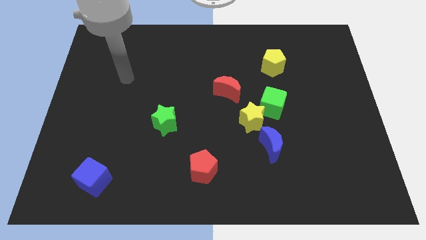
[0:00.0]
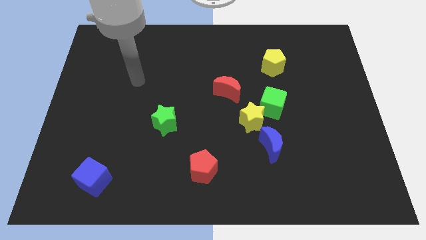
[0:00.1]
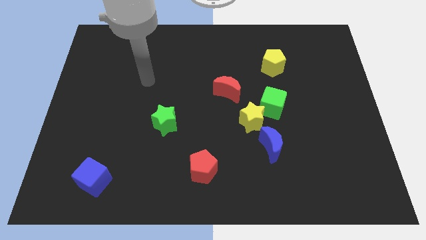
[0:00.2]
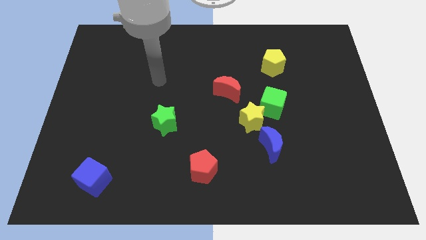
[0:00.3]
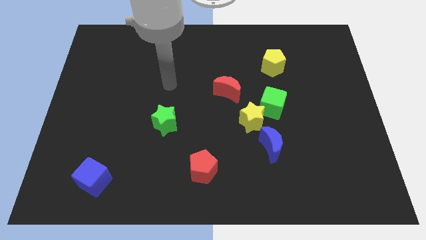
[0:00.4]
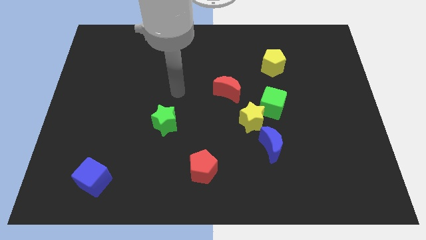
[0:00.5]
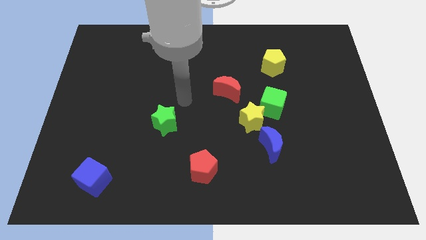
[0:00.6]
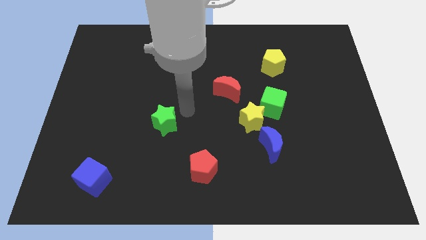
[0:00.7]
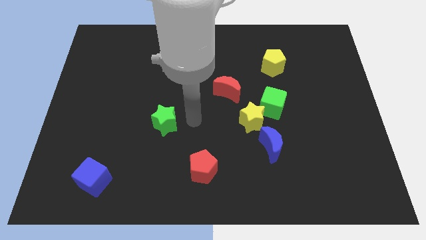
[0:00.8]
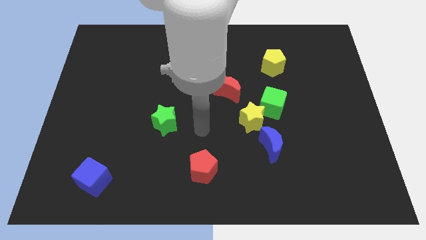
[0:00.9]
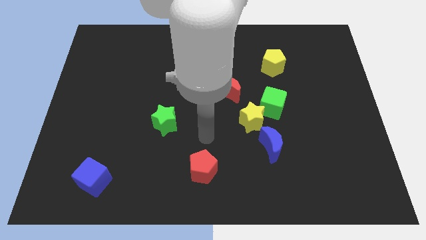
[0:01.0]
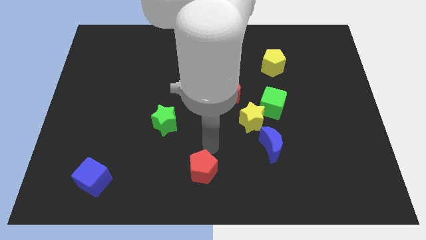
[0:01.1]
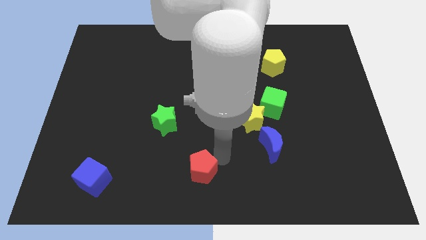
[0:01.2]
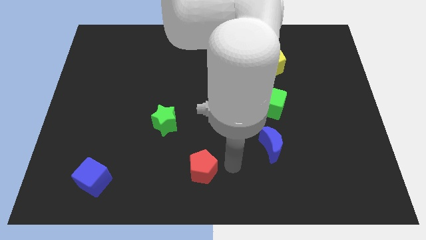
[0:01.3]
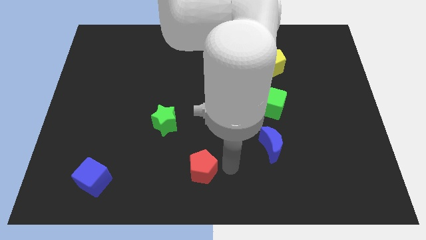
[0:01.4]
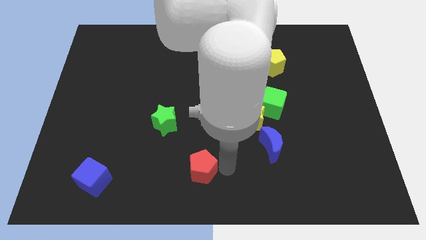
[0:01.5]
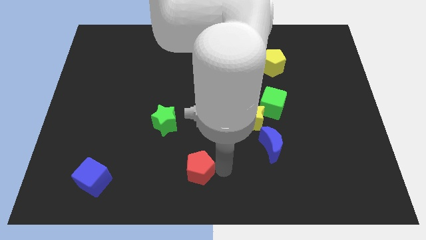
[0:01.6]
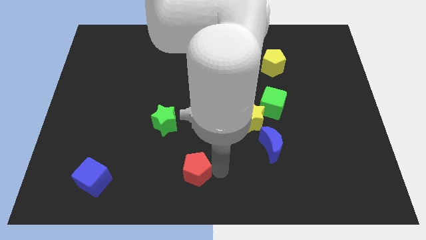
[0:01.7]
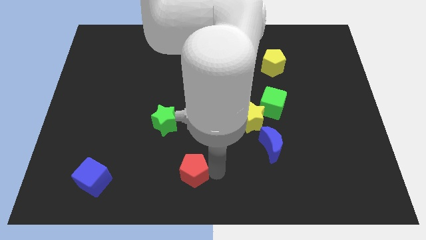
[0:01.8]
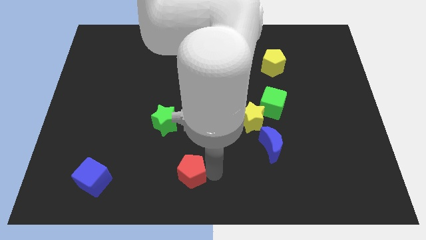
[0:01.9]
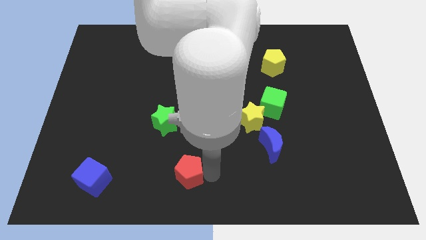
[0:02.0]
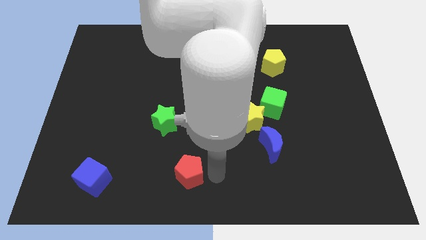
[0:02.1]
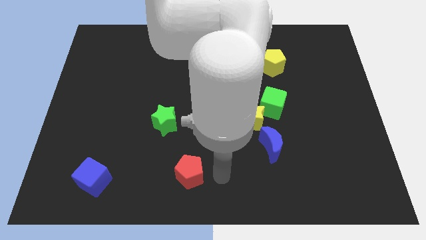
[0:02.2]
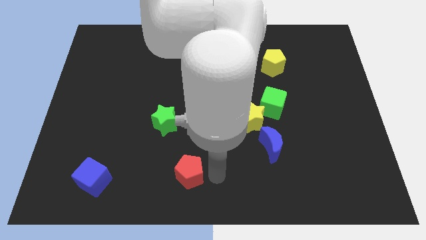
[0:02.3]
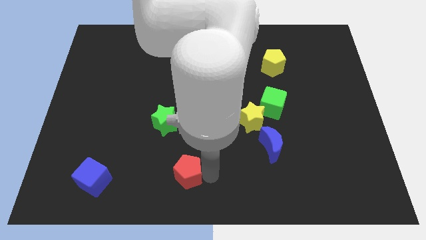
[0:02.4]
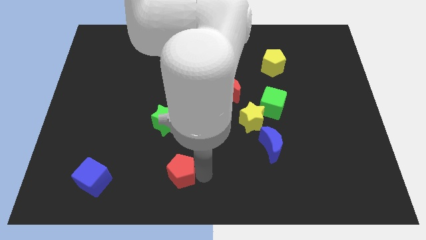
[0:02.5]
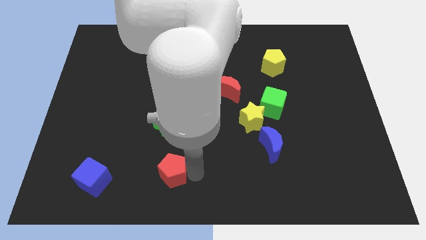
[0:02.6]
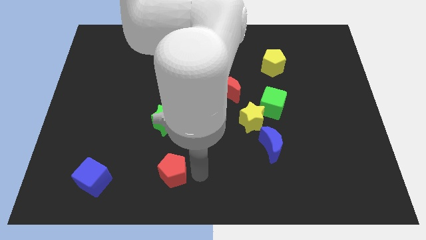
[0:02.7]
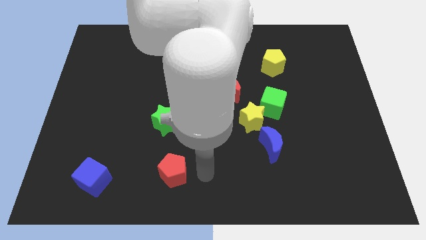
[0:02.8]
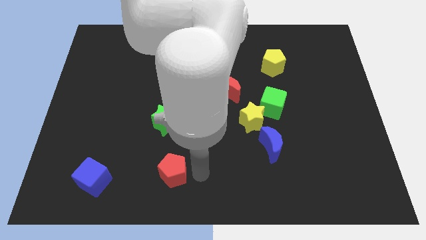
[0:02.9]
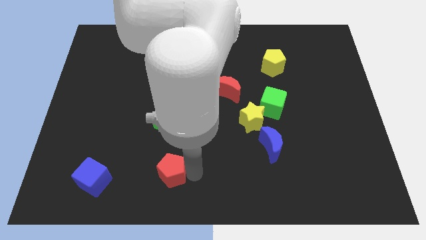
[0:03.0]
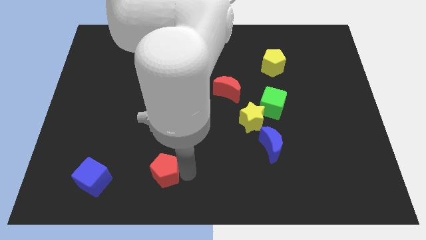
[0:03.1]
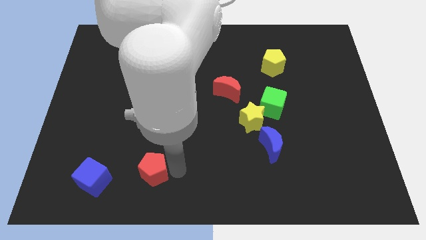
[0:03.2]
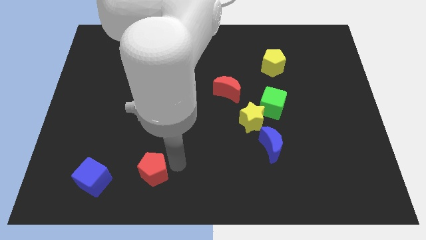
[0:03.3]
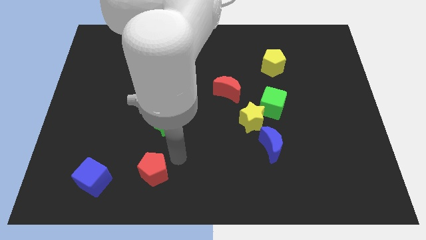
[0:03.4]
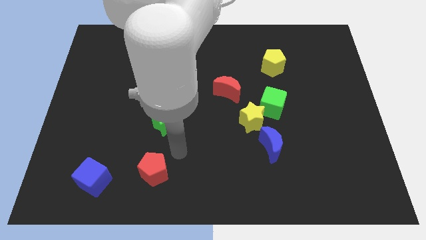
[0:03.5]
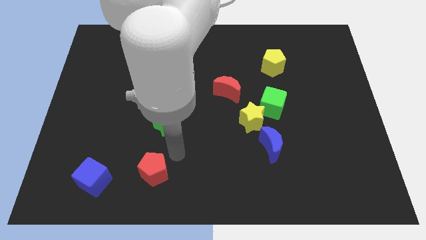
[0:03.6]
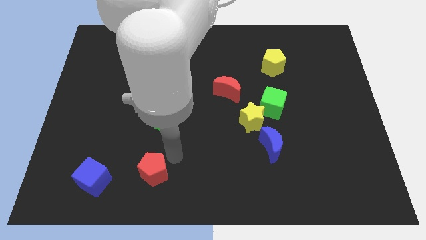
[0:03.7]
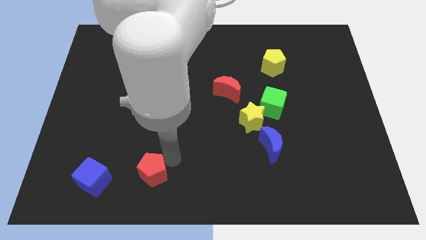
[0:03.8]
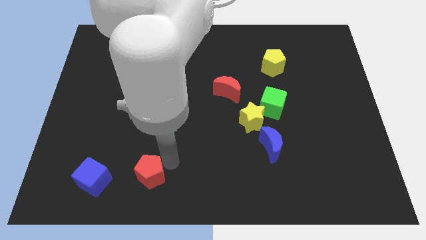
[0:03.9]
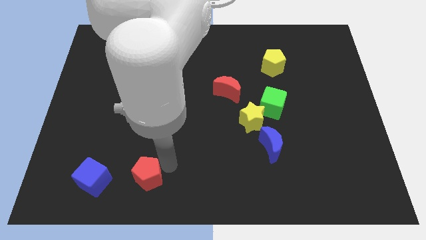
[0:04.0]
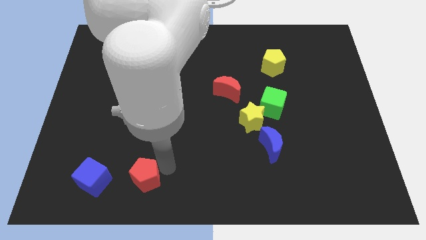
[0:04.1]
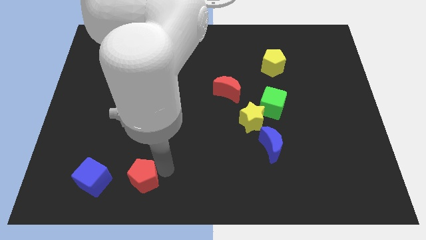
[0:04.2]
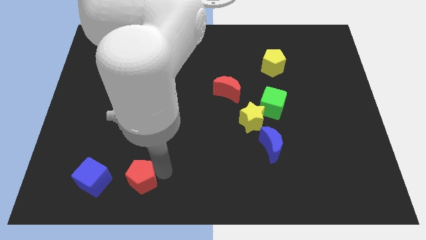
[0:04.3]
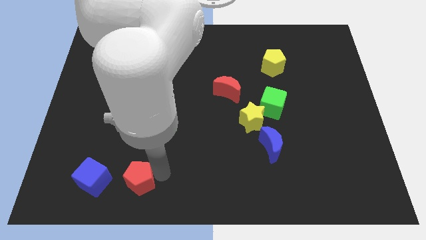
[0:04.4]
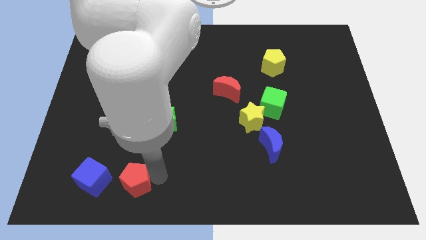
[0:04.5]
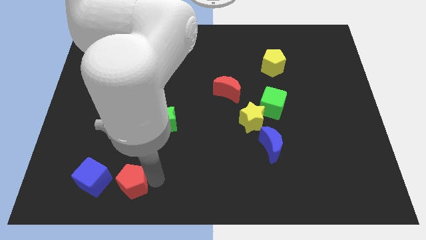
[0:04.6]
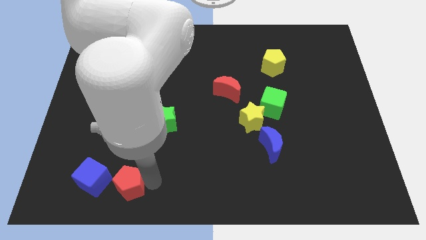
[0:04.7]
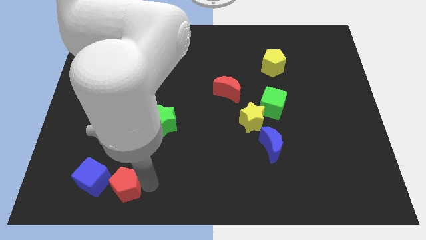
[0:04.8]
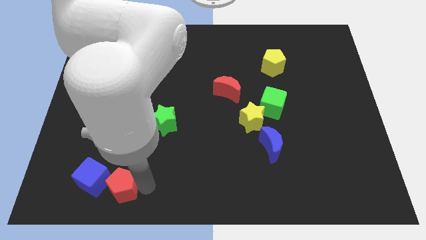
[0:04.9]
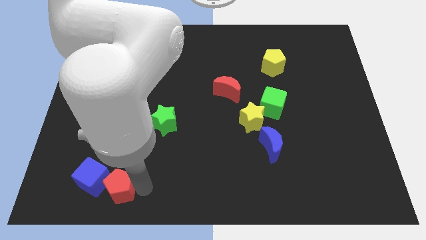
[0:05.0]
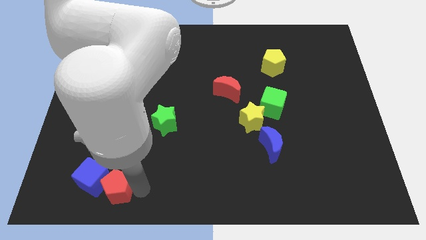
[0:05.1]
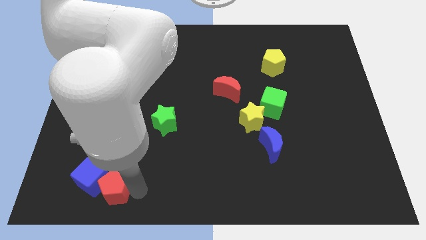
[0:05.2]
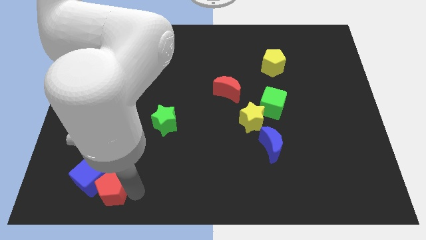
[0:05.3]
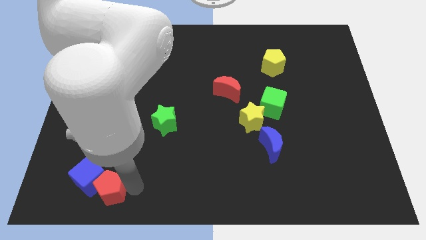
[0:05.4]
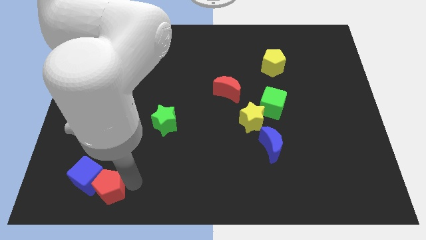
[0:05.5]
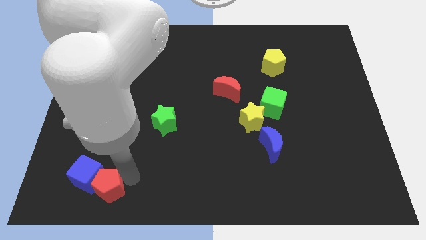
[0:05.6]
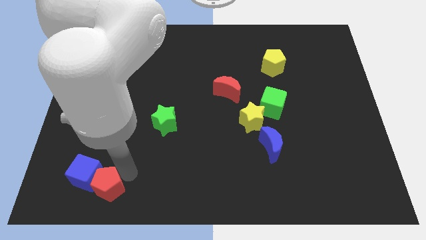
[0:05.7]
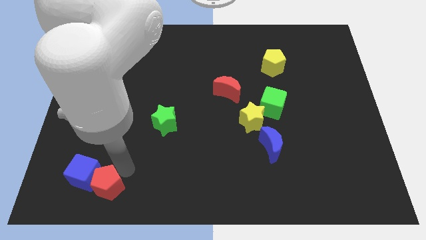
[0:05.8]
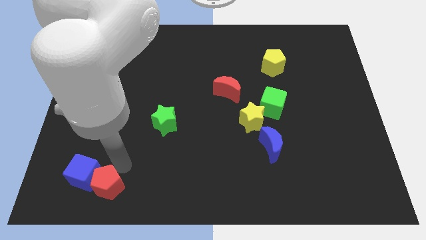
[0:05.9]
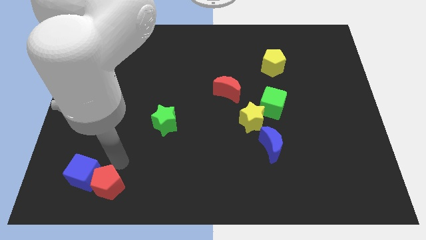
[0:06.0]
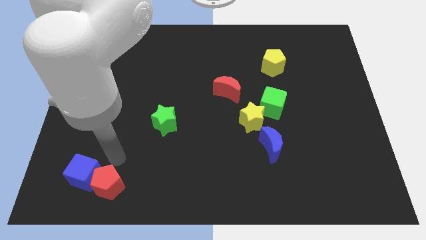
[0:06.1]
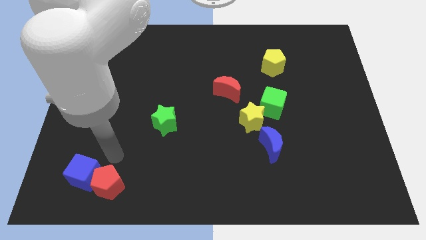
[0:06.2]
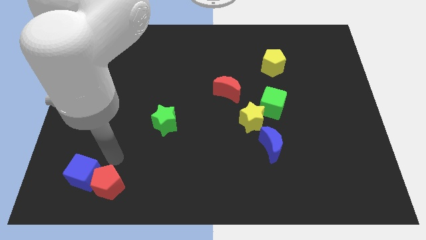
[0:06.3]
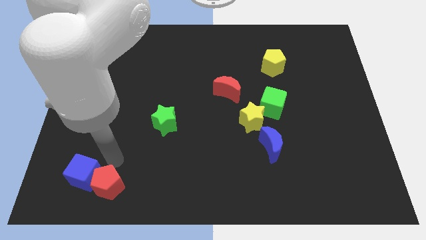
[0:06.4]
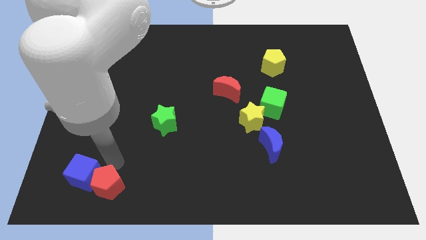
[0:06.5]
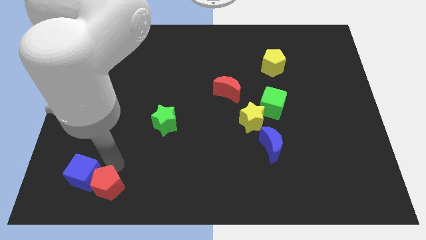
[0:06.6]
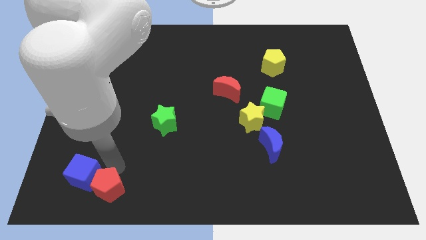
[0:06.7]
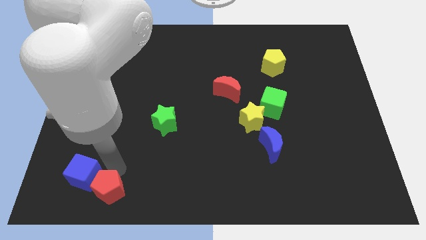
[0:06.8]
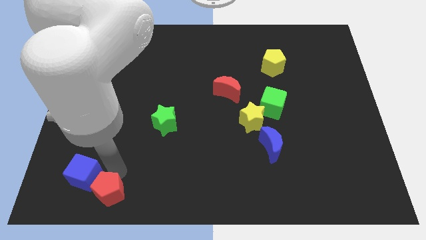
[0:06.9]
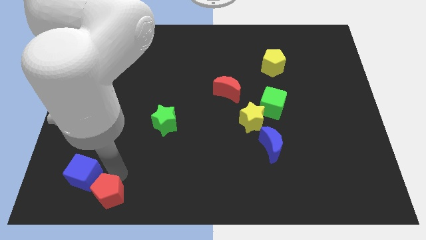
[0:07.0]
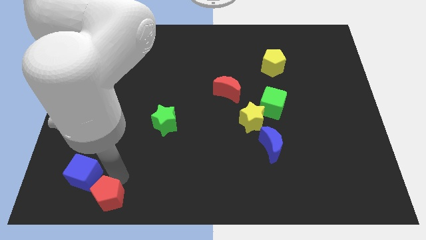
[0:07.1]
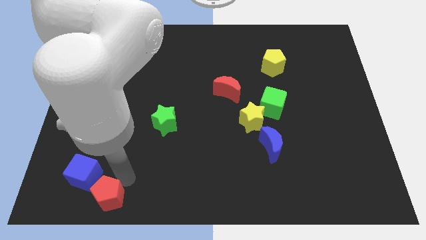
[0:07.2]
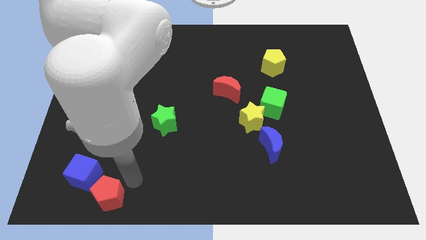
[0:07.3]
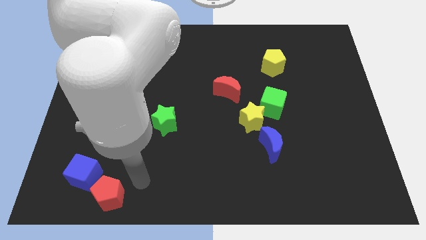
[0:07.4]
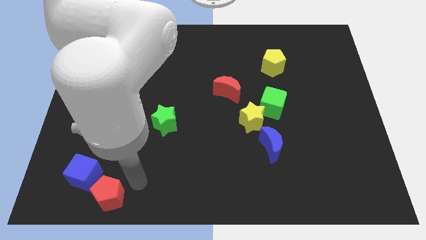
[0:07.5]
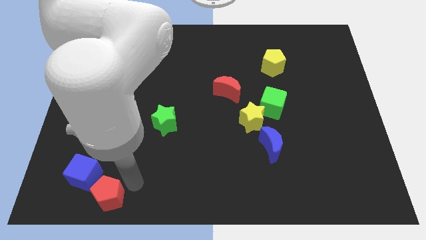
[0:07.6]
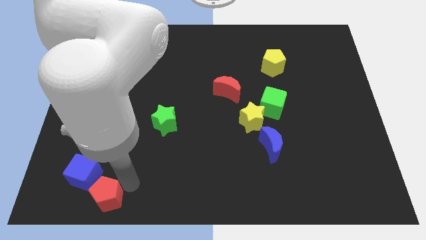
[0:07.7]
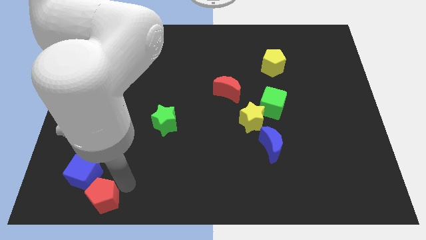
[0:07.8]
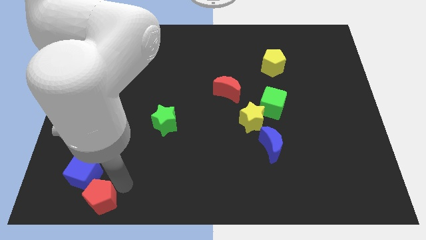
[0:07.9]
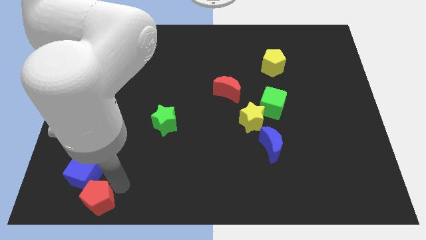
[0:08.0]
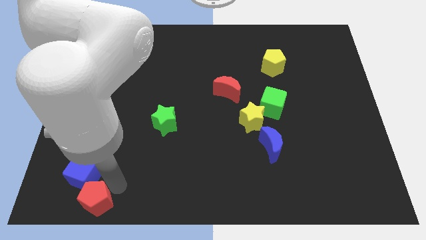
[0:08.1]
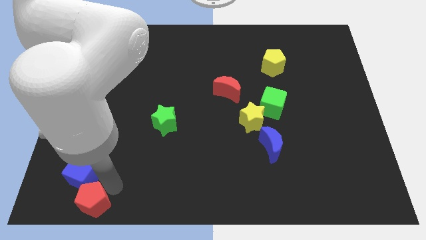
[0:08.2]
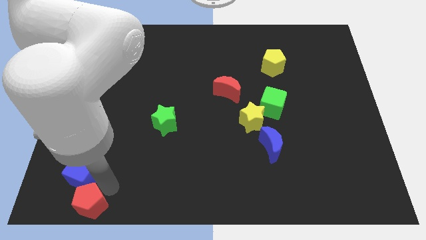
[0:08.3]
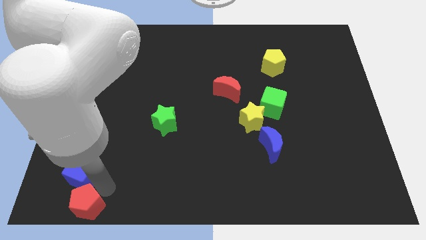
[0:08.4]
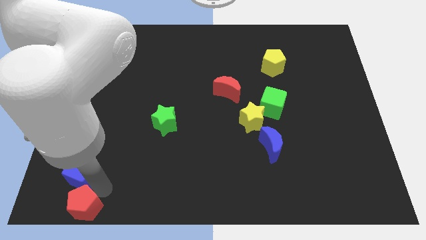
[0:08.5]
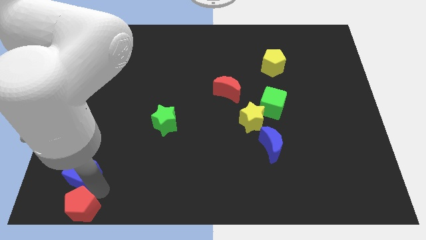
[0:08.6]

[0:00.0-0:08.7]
put the red pentagon to the bottom left corner
